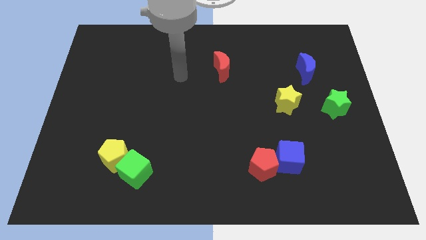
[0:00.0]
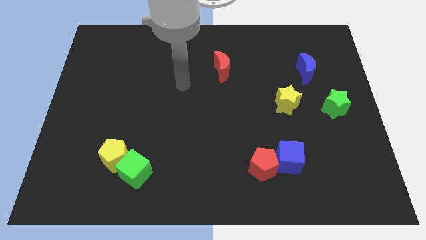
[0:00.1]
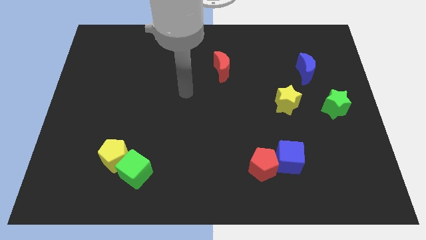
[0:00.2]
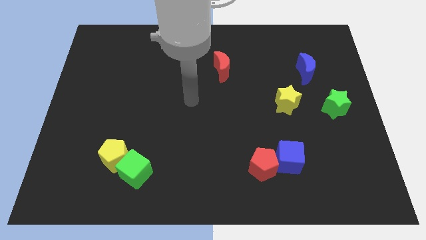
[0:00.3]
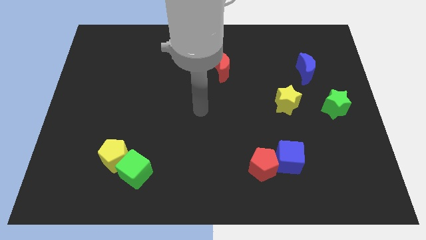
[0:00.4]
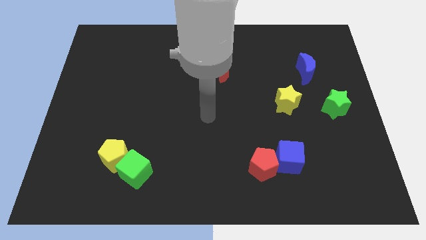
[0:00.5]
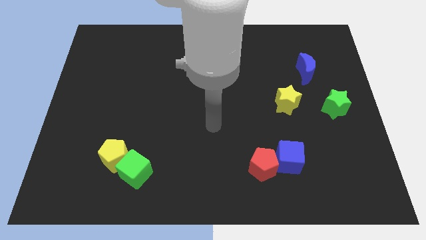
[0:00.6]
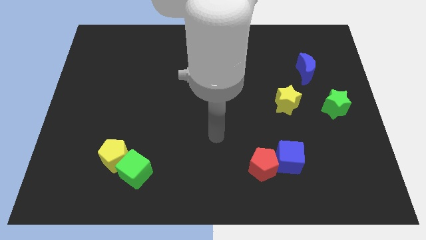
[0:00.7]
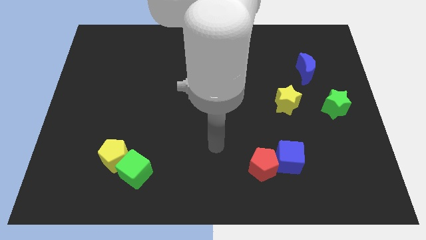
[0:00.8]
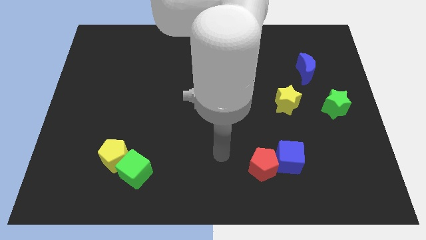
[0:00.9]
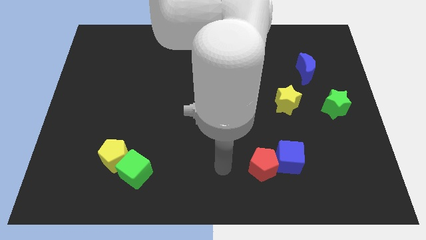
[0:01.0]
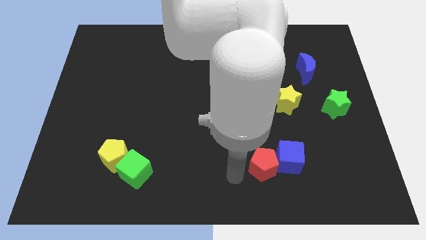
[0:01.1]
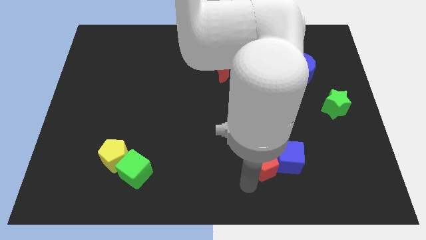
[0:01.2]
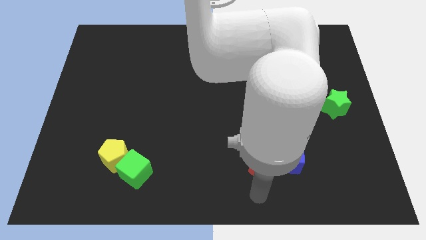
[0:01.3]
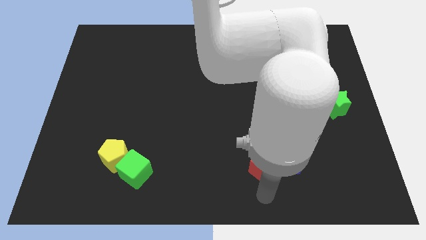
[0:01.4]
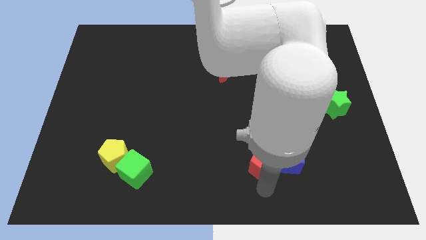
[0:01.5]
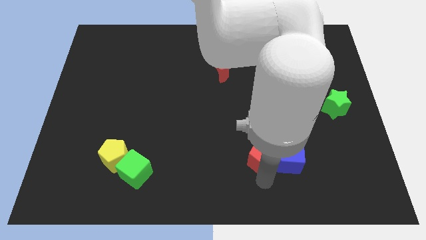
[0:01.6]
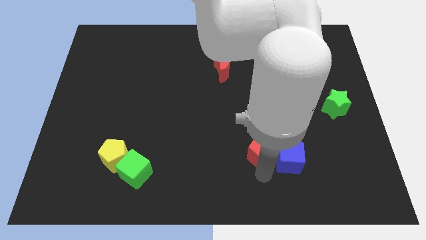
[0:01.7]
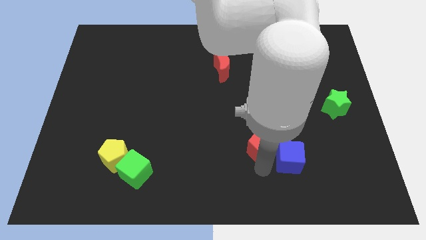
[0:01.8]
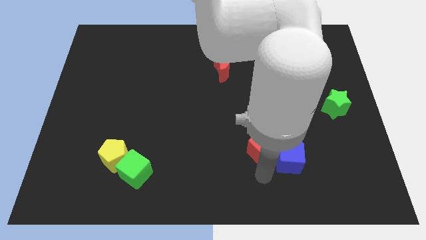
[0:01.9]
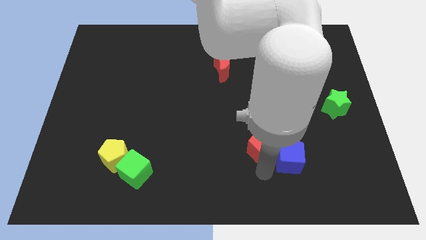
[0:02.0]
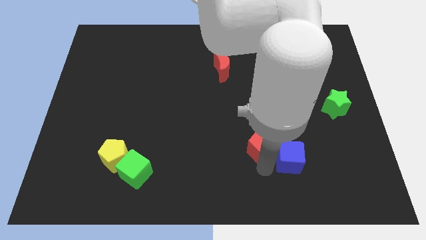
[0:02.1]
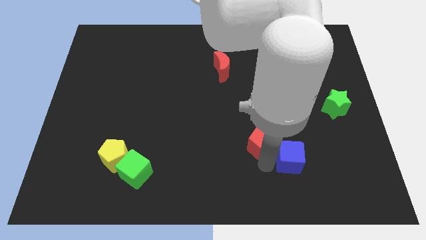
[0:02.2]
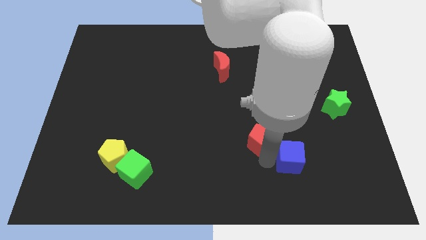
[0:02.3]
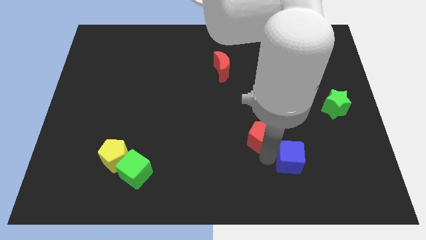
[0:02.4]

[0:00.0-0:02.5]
move the red pentagon somewhat upwards

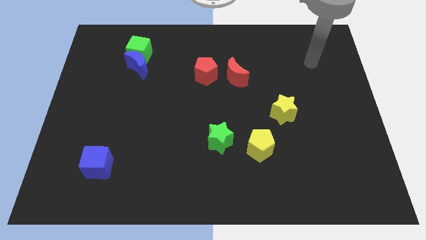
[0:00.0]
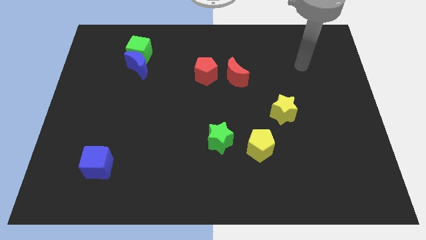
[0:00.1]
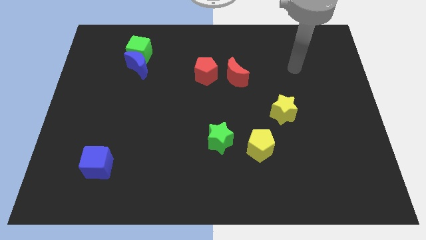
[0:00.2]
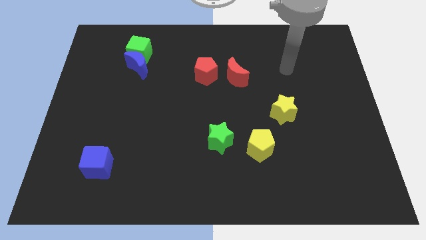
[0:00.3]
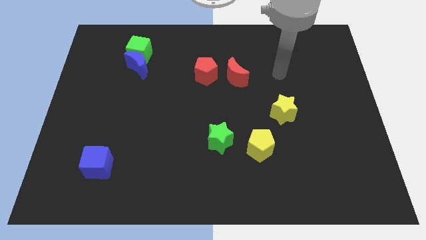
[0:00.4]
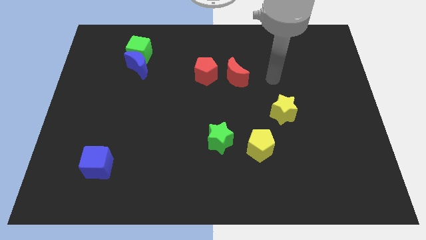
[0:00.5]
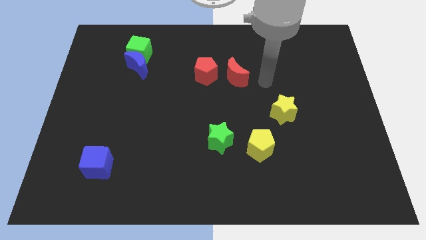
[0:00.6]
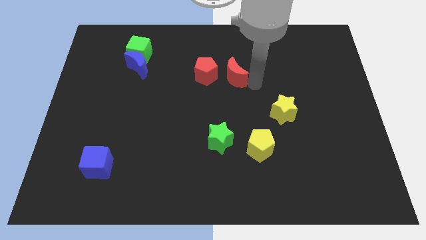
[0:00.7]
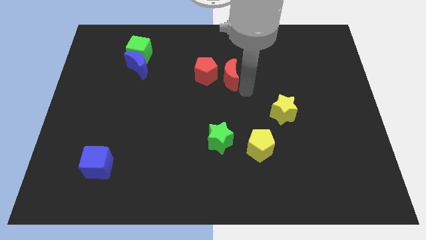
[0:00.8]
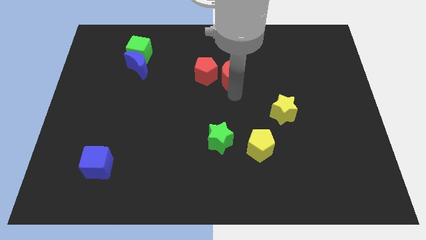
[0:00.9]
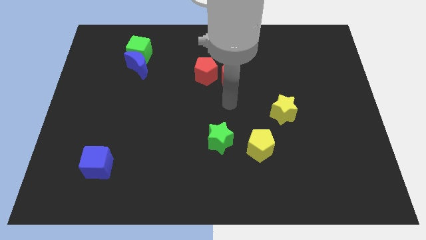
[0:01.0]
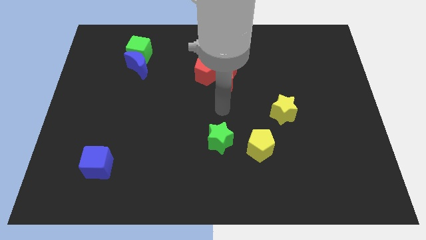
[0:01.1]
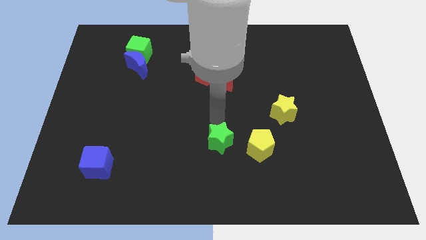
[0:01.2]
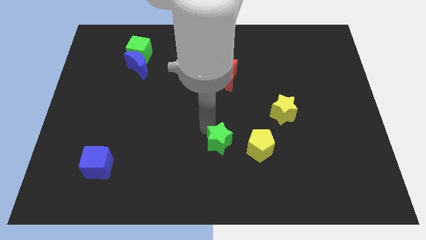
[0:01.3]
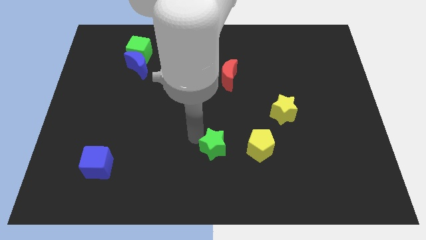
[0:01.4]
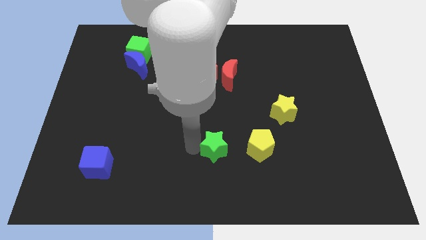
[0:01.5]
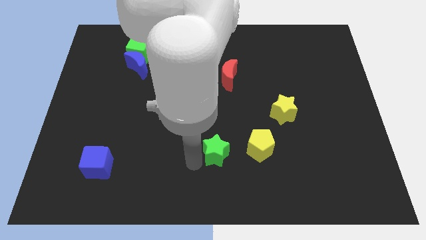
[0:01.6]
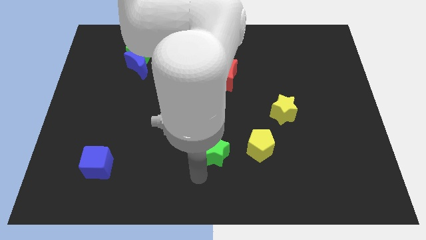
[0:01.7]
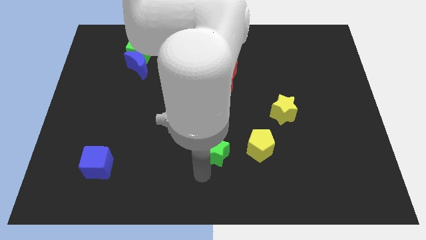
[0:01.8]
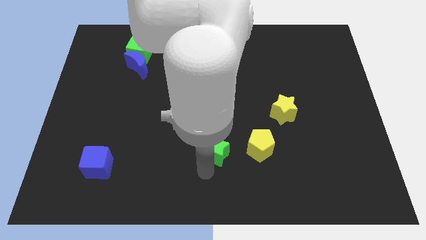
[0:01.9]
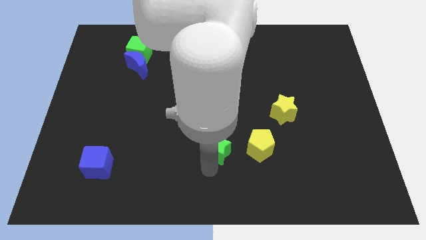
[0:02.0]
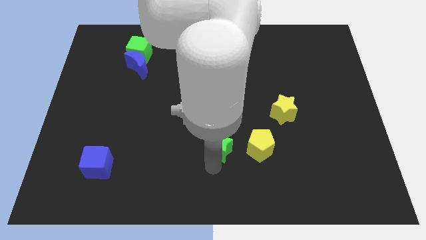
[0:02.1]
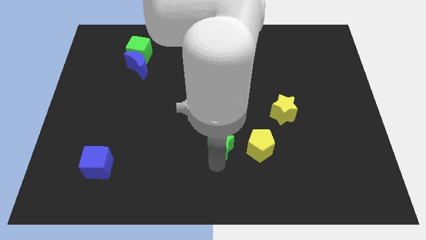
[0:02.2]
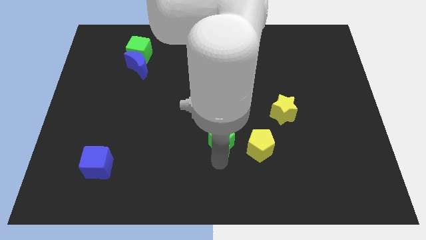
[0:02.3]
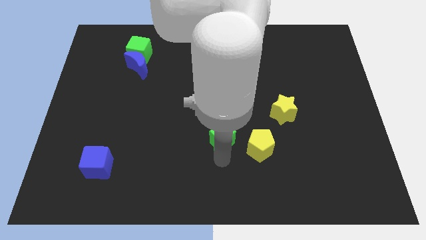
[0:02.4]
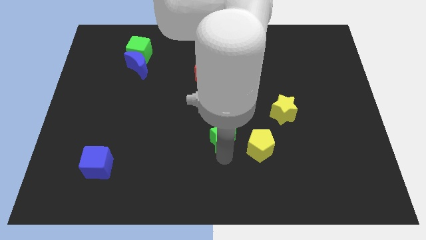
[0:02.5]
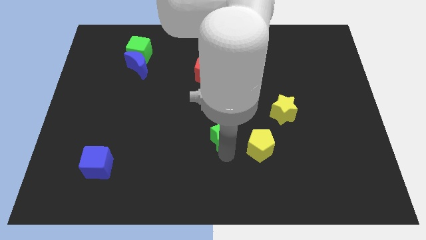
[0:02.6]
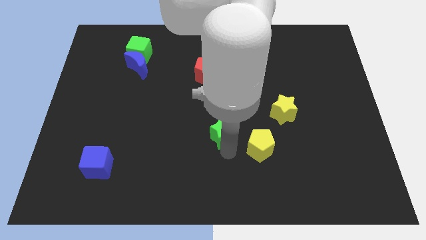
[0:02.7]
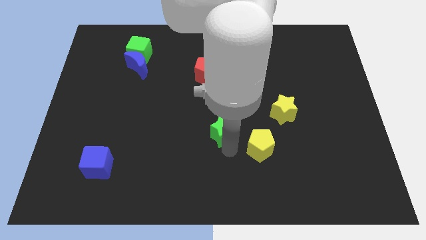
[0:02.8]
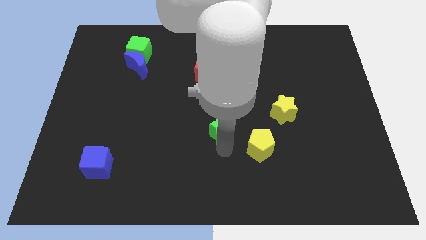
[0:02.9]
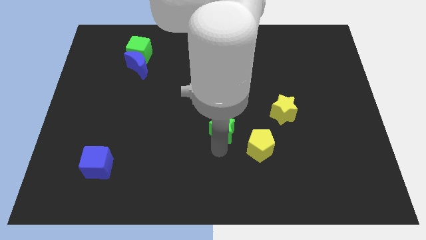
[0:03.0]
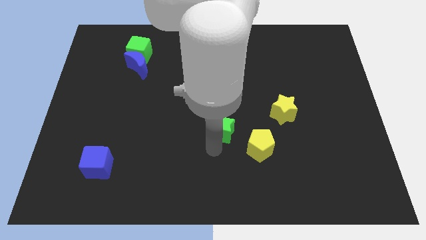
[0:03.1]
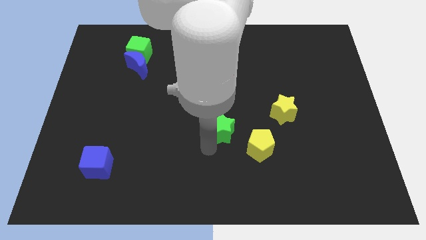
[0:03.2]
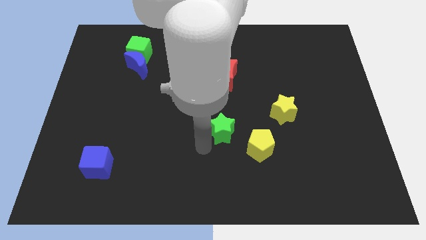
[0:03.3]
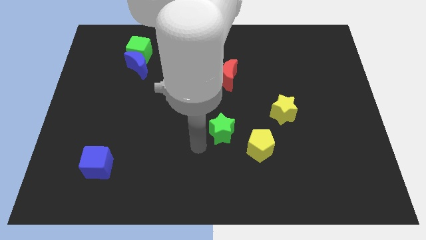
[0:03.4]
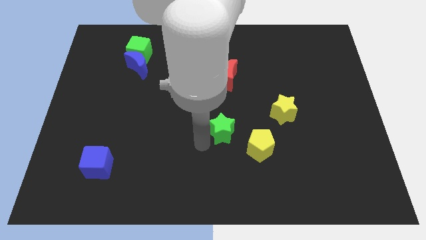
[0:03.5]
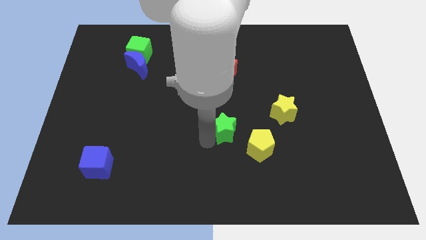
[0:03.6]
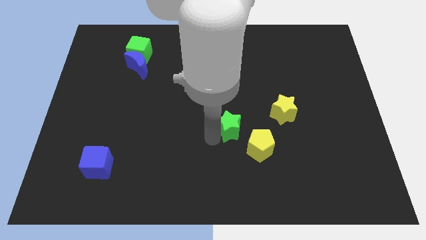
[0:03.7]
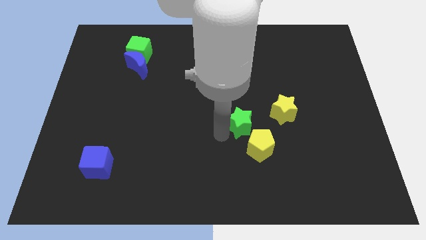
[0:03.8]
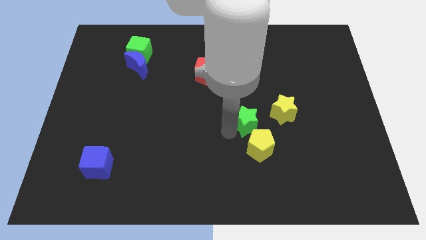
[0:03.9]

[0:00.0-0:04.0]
slide the green star upwards and then right a little bit

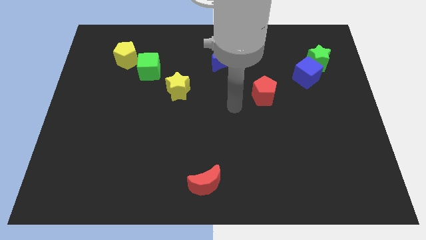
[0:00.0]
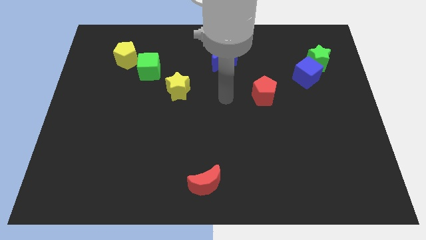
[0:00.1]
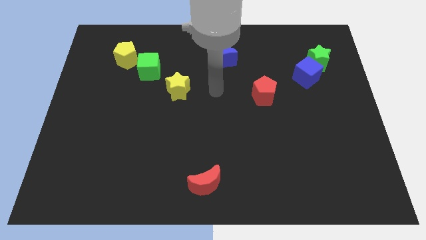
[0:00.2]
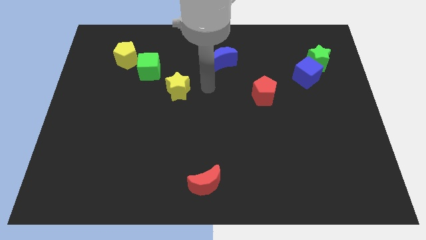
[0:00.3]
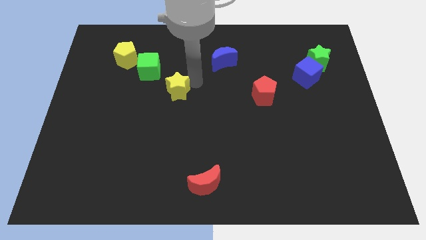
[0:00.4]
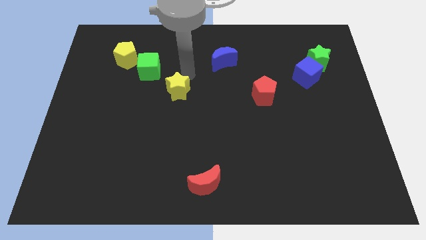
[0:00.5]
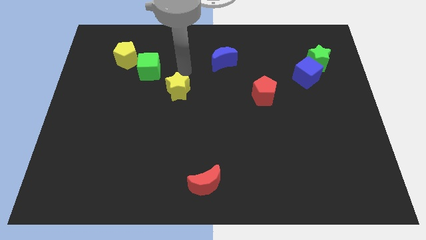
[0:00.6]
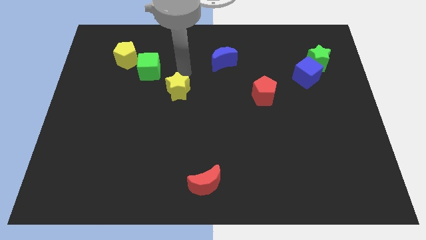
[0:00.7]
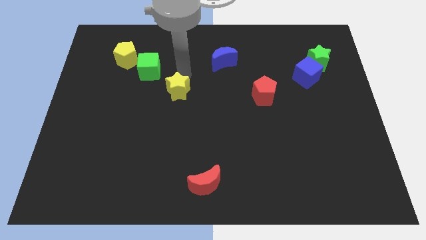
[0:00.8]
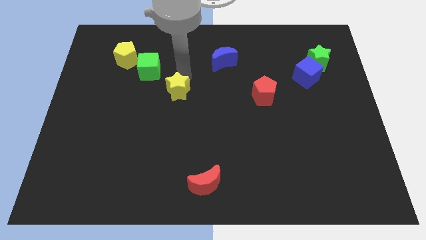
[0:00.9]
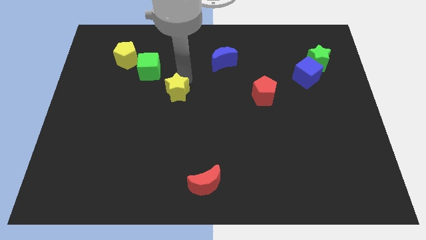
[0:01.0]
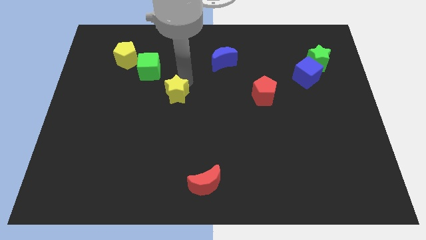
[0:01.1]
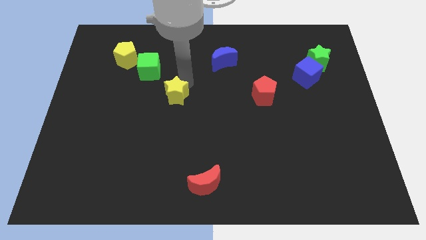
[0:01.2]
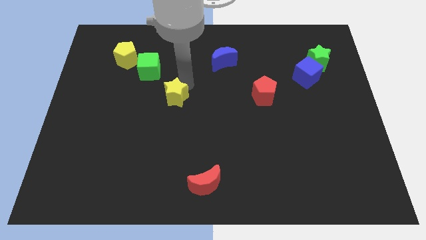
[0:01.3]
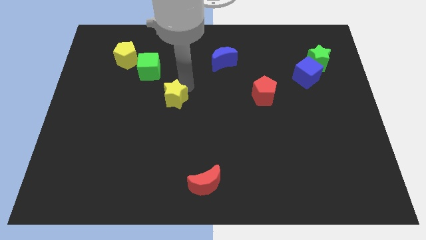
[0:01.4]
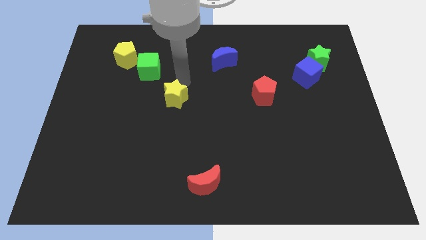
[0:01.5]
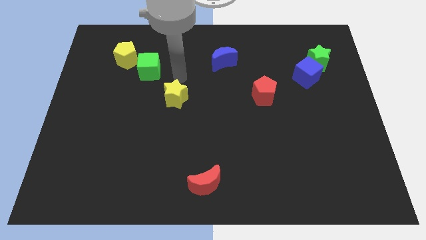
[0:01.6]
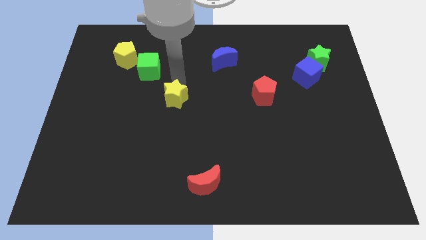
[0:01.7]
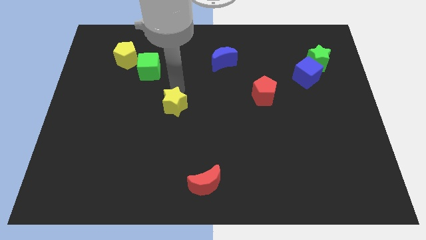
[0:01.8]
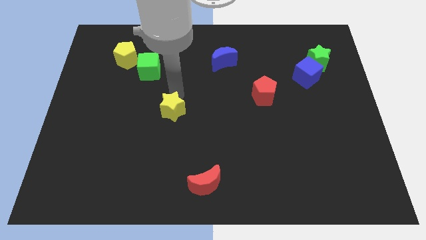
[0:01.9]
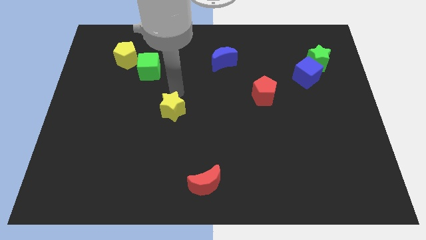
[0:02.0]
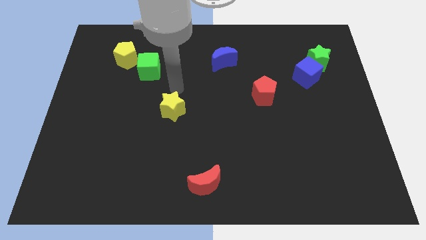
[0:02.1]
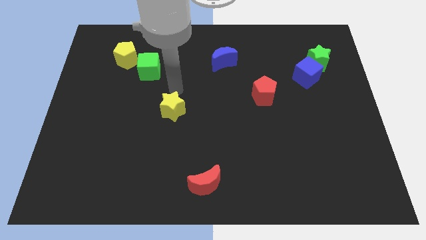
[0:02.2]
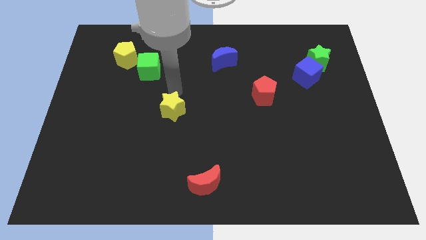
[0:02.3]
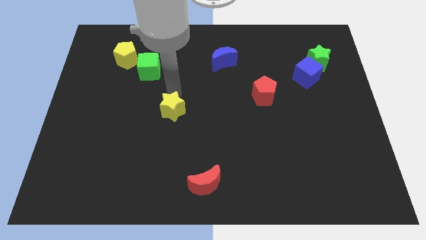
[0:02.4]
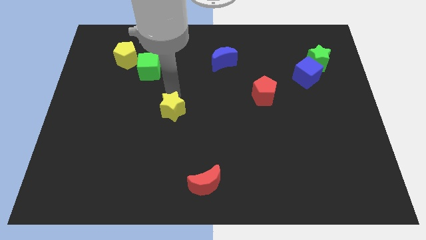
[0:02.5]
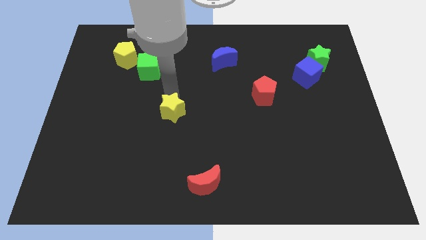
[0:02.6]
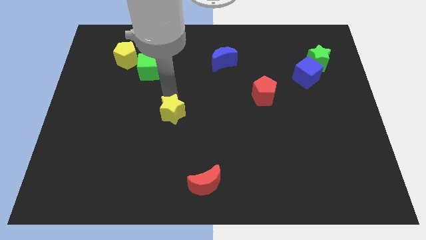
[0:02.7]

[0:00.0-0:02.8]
move the yellow star a little downwards
